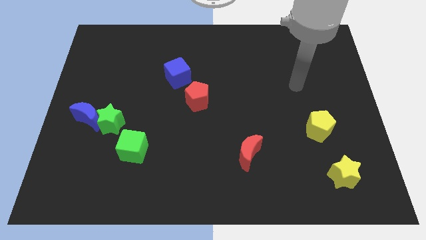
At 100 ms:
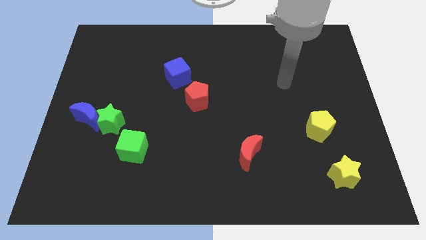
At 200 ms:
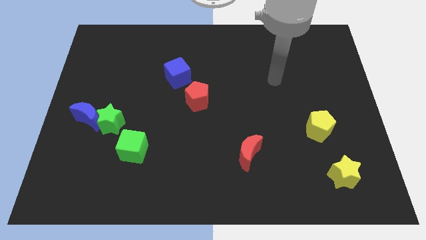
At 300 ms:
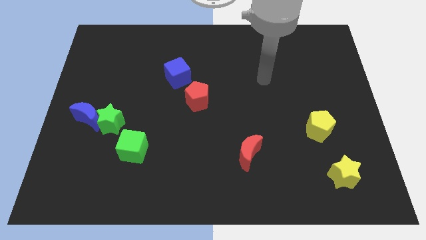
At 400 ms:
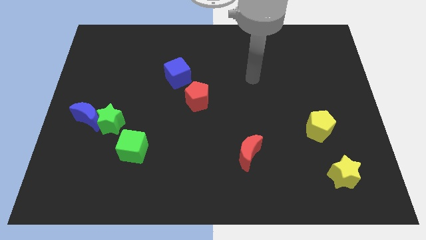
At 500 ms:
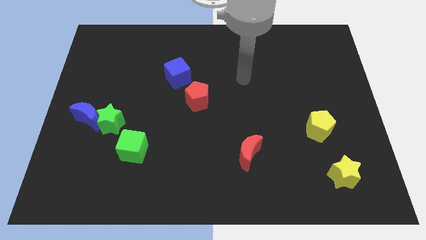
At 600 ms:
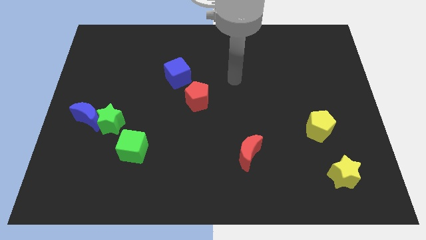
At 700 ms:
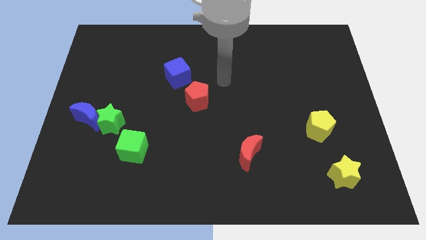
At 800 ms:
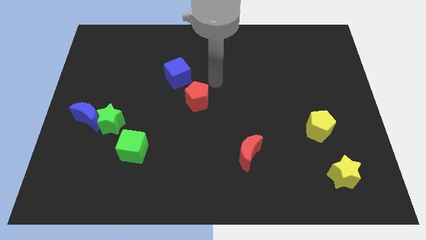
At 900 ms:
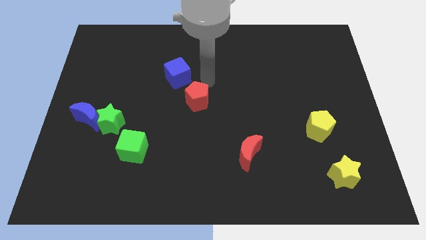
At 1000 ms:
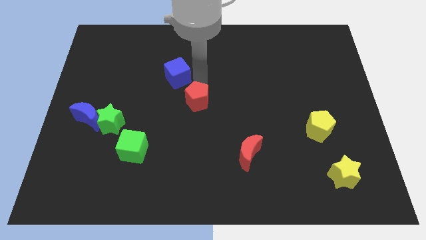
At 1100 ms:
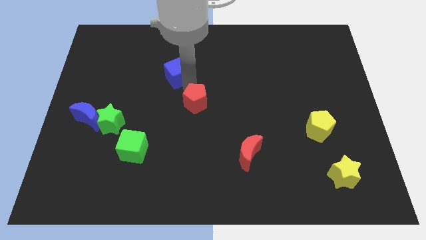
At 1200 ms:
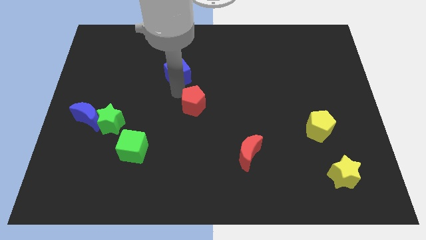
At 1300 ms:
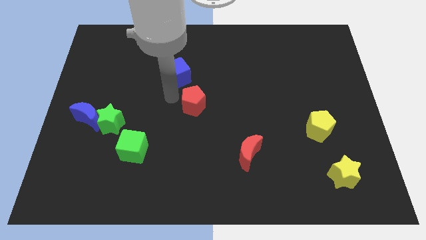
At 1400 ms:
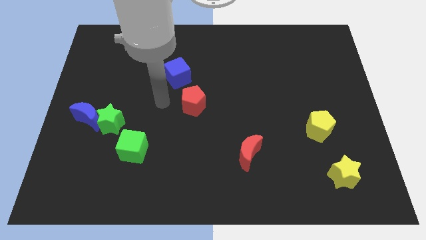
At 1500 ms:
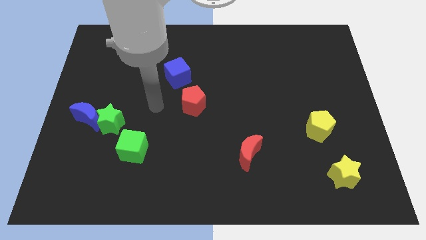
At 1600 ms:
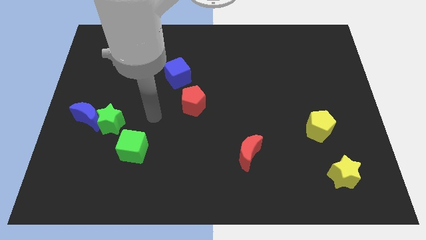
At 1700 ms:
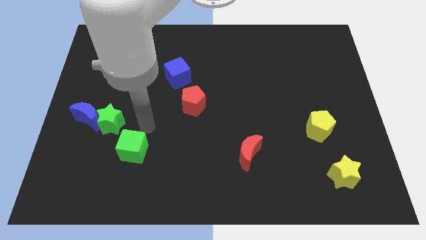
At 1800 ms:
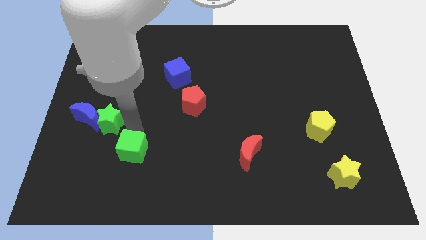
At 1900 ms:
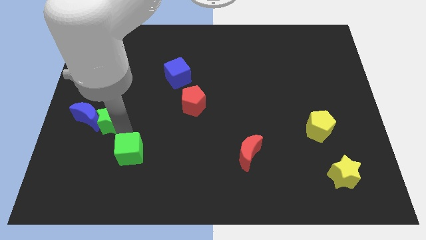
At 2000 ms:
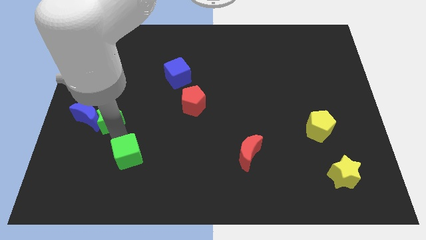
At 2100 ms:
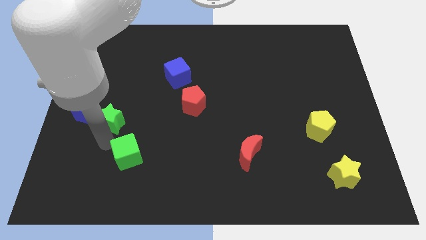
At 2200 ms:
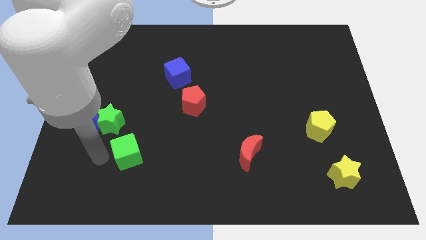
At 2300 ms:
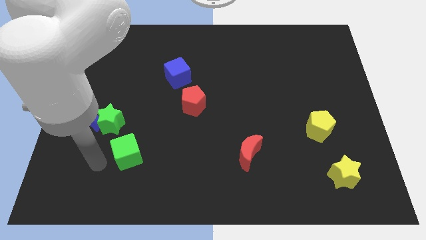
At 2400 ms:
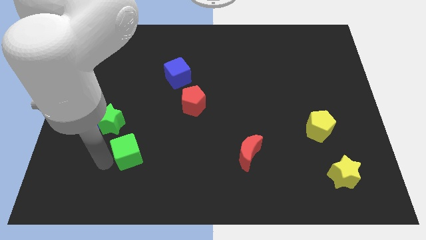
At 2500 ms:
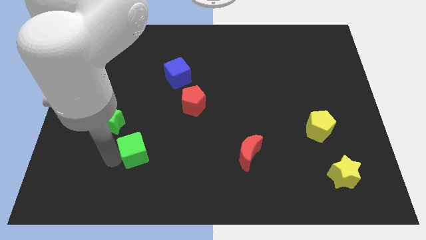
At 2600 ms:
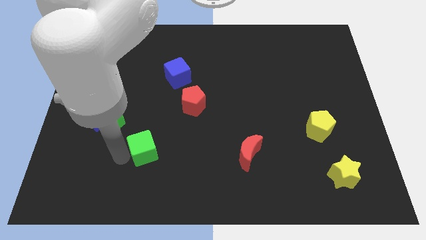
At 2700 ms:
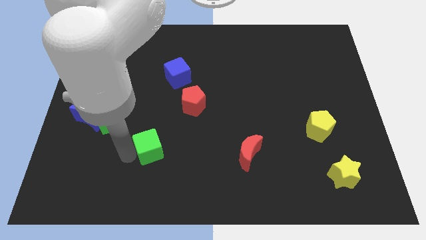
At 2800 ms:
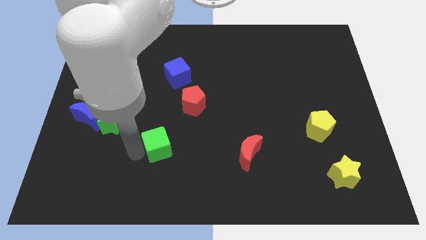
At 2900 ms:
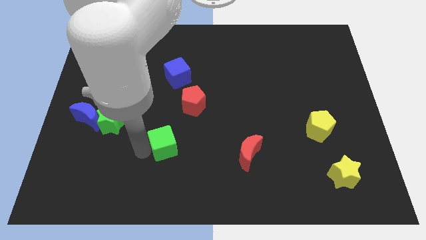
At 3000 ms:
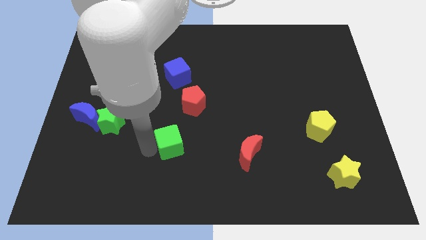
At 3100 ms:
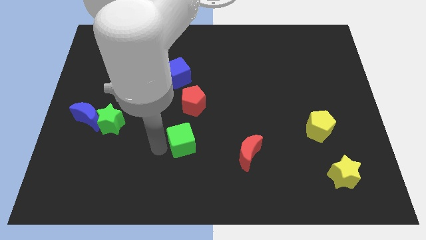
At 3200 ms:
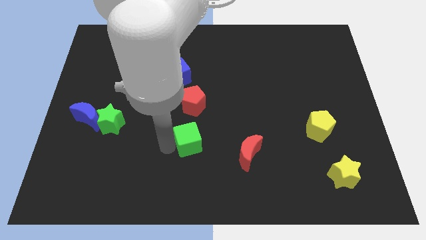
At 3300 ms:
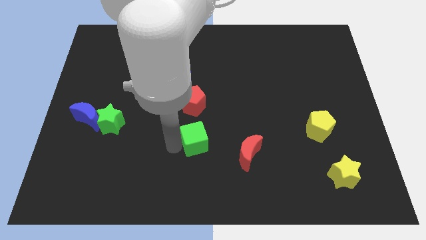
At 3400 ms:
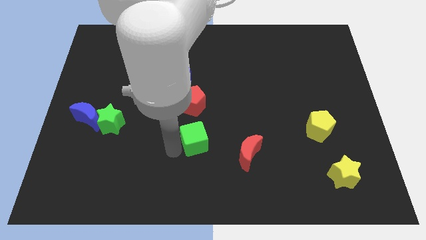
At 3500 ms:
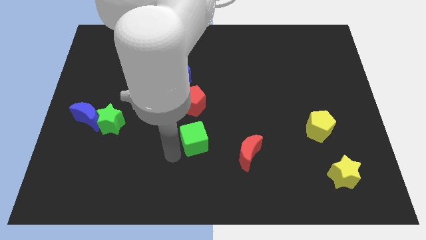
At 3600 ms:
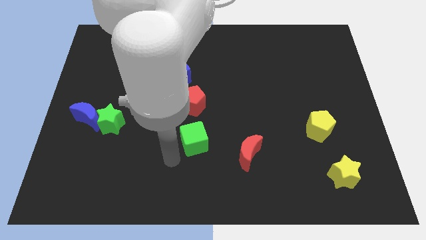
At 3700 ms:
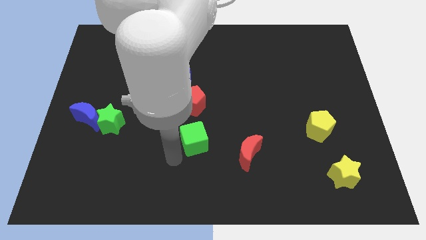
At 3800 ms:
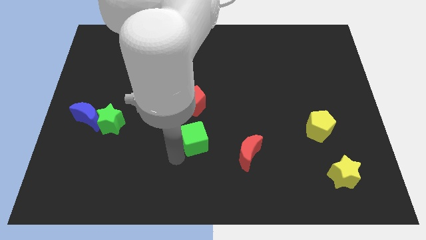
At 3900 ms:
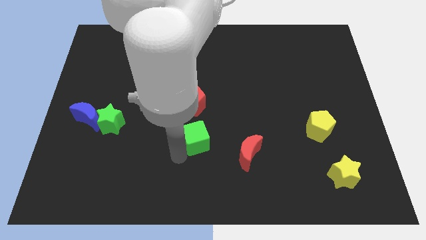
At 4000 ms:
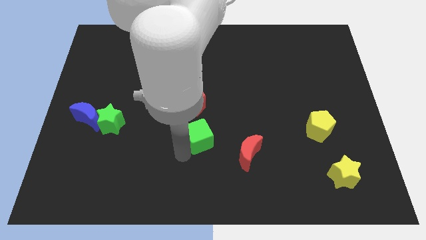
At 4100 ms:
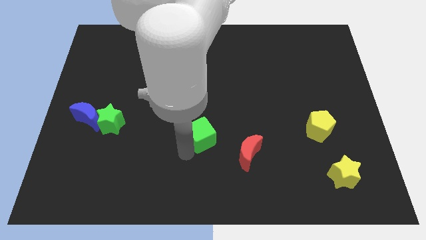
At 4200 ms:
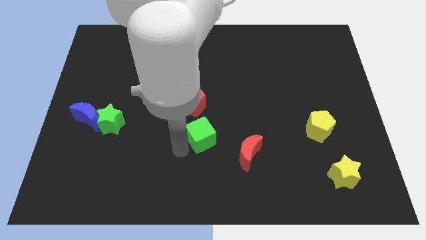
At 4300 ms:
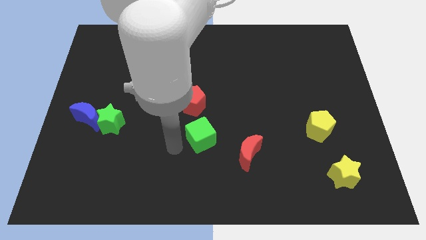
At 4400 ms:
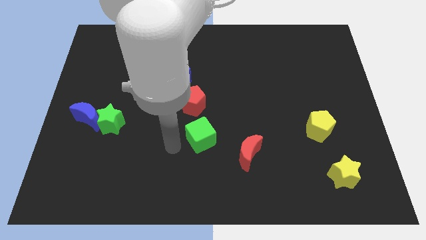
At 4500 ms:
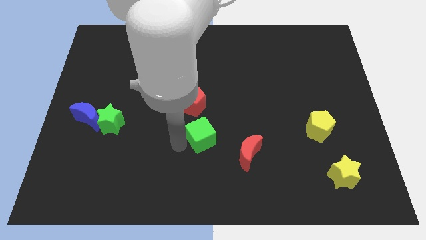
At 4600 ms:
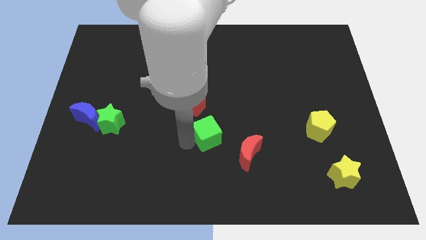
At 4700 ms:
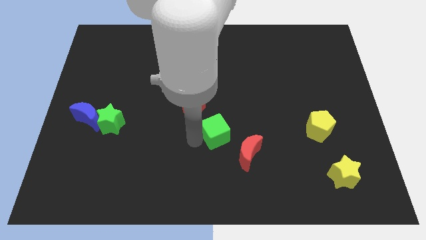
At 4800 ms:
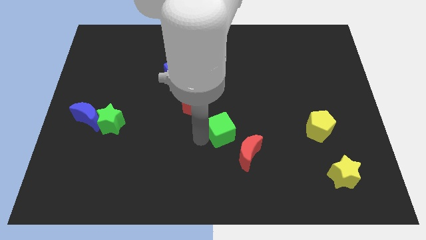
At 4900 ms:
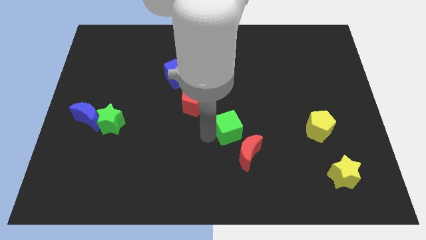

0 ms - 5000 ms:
push the green cube right

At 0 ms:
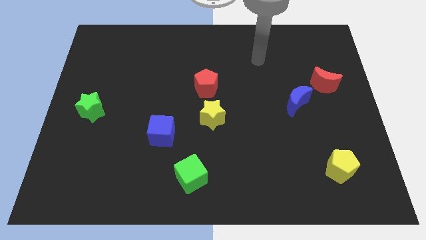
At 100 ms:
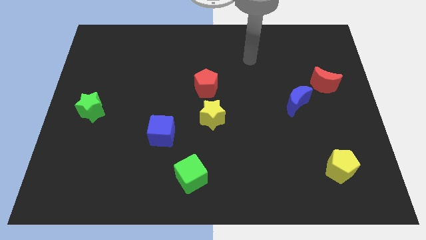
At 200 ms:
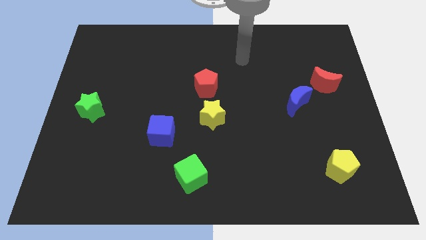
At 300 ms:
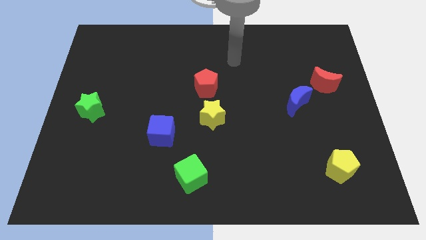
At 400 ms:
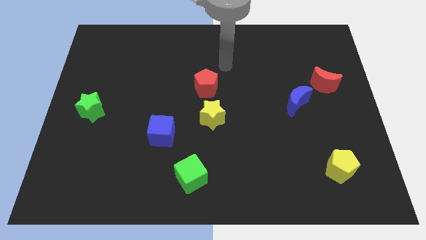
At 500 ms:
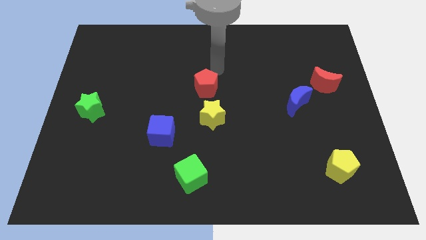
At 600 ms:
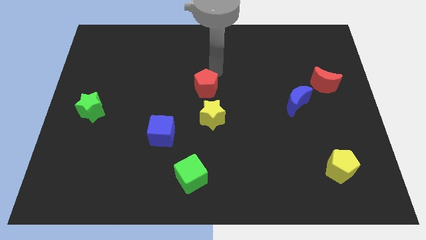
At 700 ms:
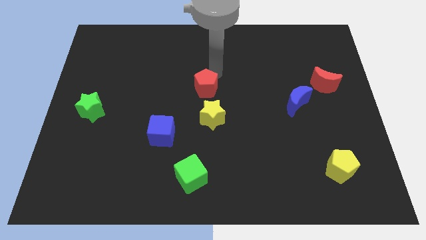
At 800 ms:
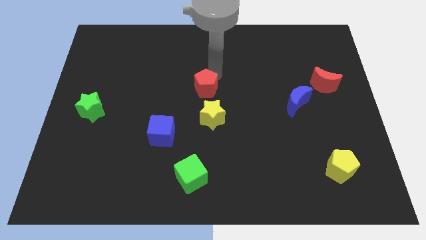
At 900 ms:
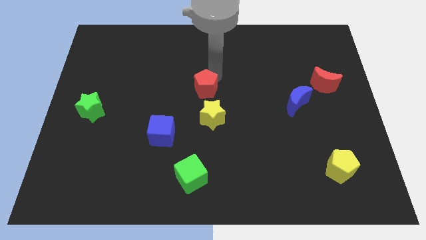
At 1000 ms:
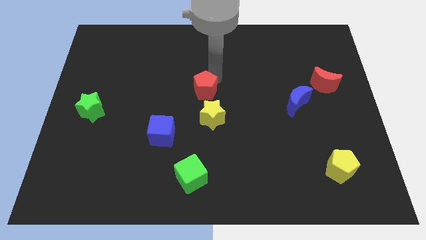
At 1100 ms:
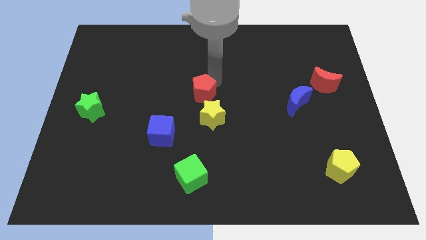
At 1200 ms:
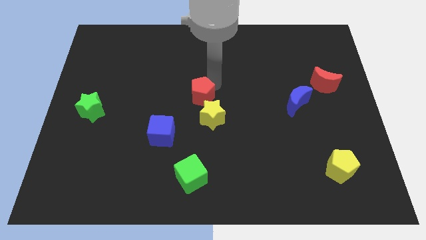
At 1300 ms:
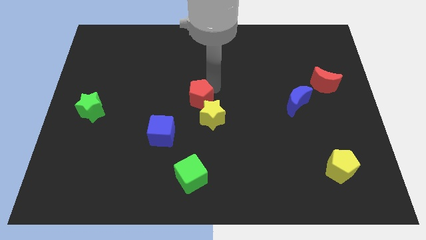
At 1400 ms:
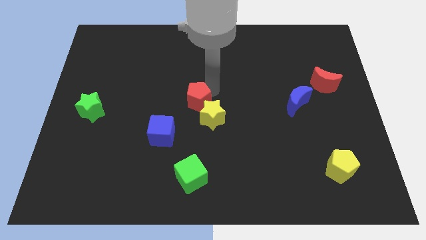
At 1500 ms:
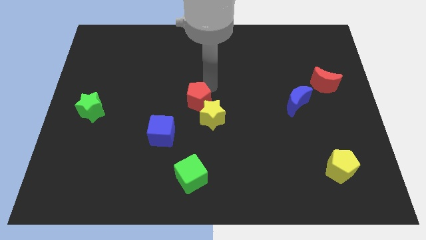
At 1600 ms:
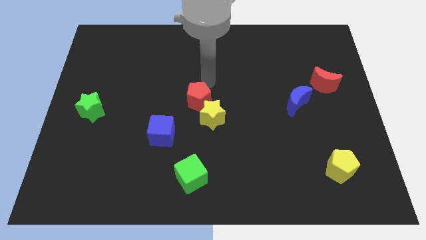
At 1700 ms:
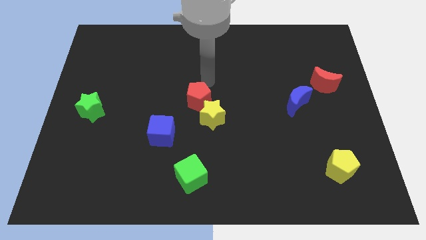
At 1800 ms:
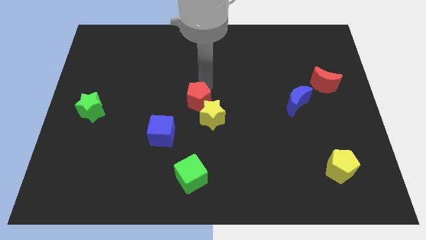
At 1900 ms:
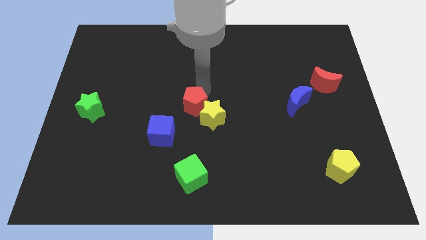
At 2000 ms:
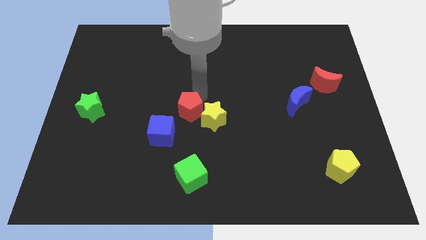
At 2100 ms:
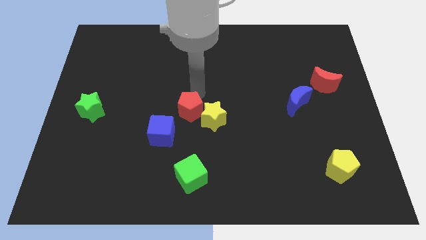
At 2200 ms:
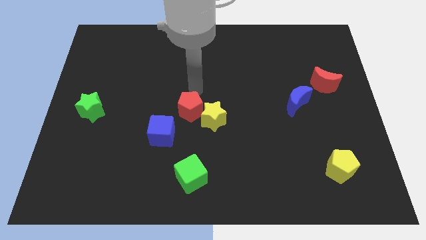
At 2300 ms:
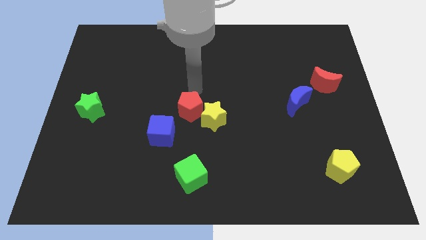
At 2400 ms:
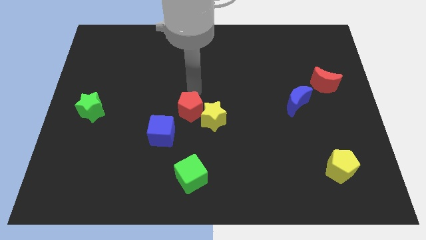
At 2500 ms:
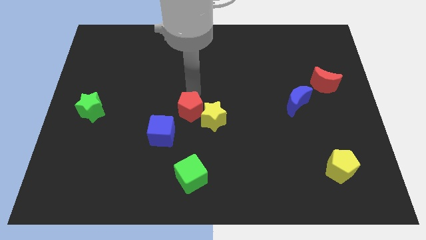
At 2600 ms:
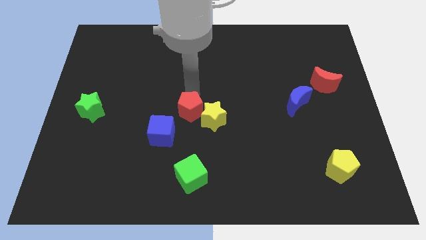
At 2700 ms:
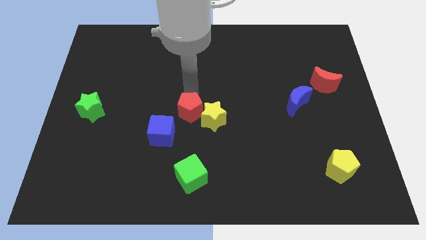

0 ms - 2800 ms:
push the red pentagon a little bit down

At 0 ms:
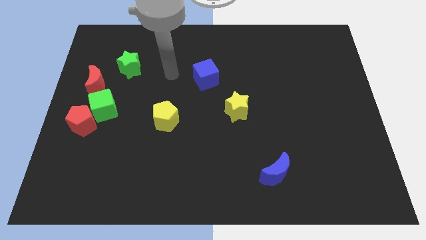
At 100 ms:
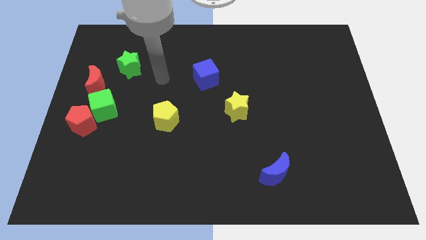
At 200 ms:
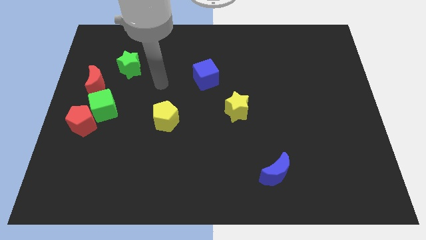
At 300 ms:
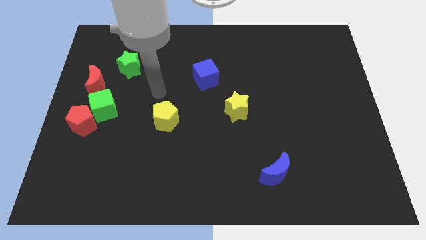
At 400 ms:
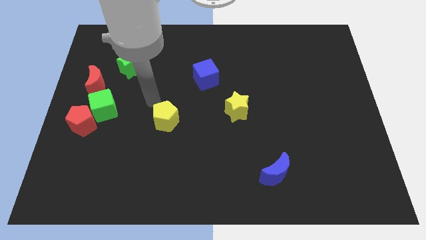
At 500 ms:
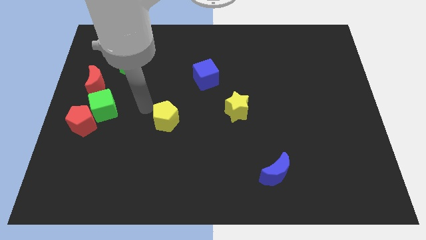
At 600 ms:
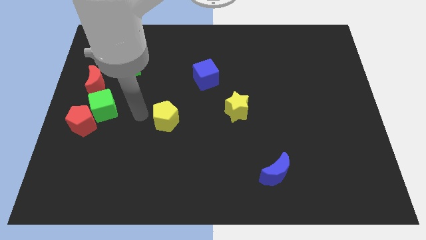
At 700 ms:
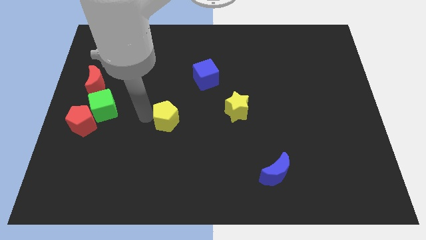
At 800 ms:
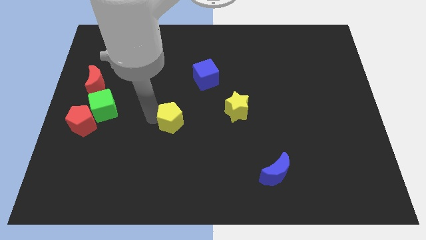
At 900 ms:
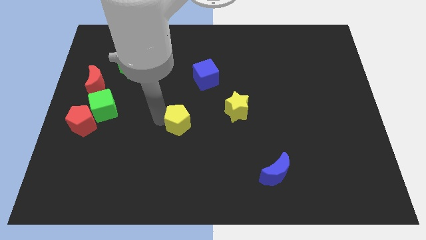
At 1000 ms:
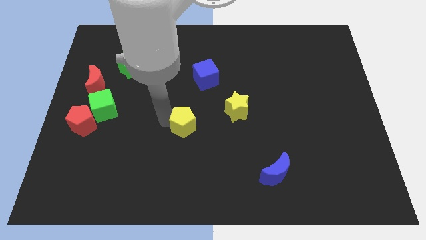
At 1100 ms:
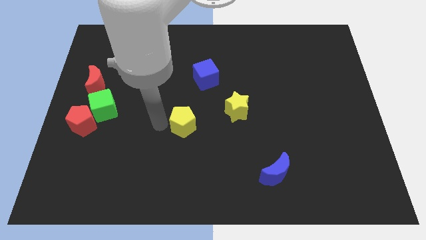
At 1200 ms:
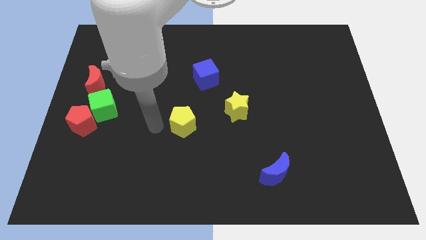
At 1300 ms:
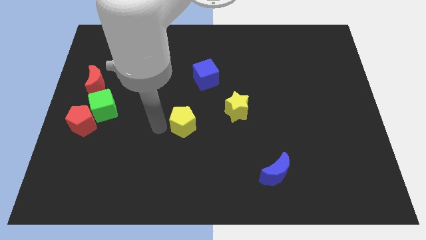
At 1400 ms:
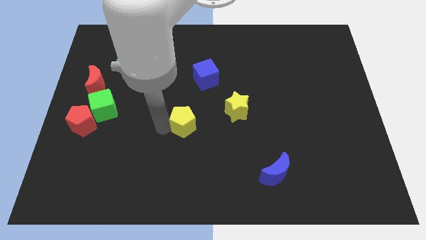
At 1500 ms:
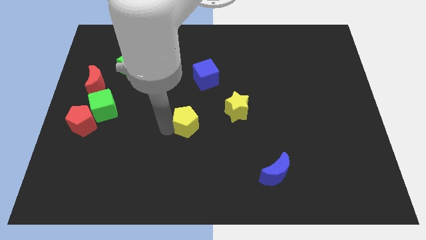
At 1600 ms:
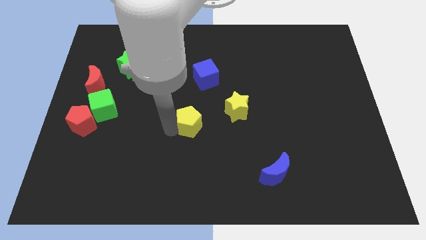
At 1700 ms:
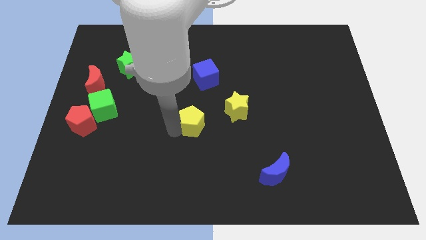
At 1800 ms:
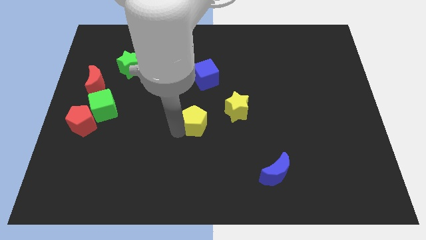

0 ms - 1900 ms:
slide the yellow pentagon slightly to the right
